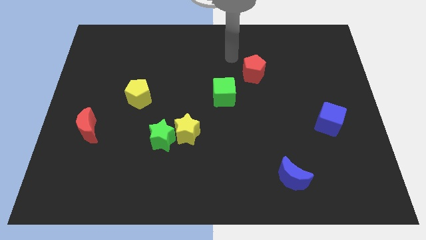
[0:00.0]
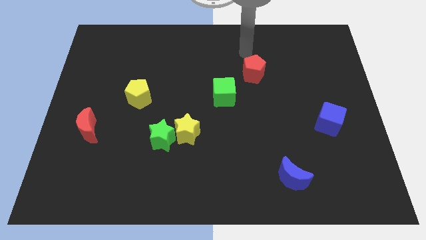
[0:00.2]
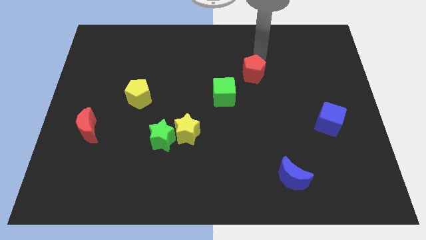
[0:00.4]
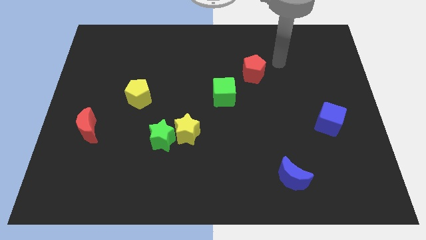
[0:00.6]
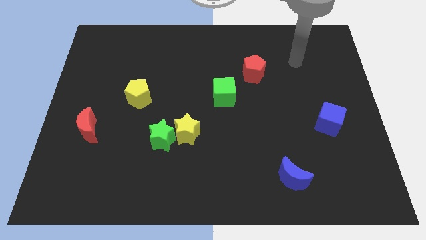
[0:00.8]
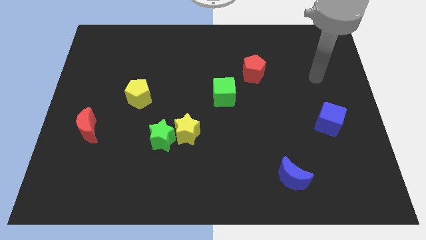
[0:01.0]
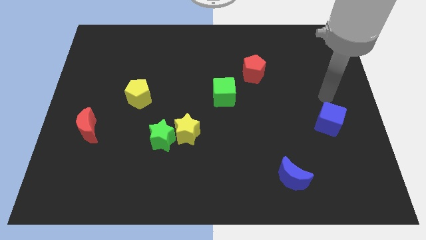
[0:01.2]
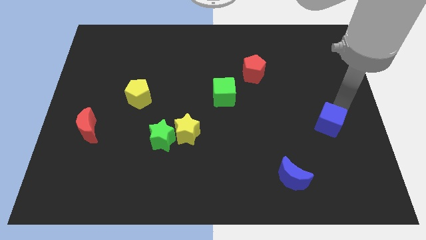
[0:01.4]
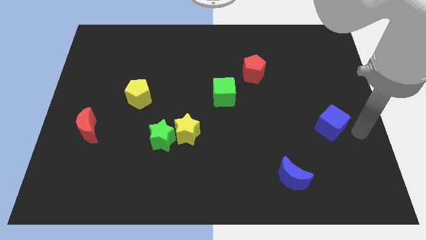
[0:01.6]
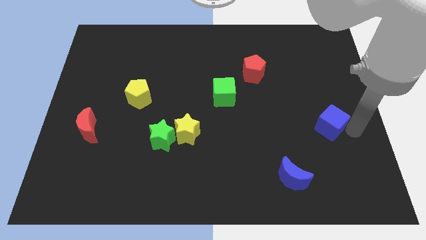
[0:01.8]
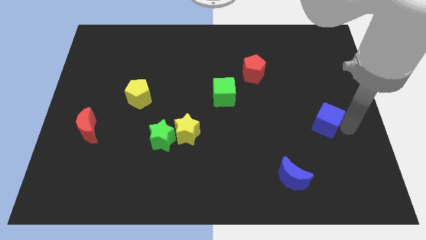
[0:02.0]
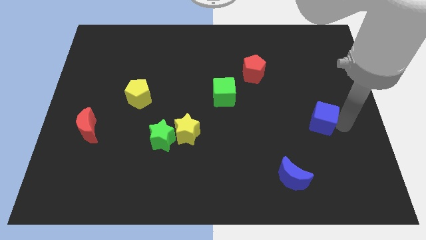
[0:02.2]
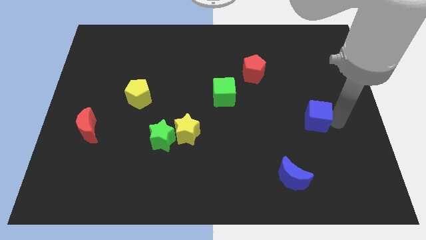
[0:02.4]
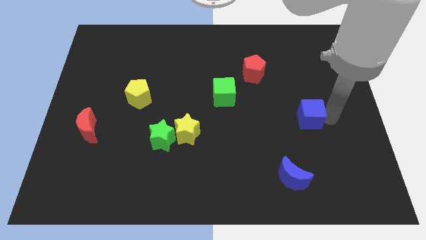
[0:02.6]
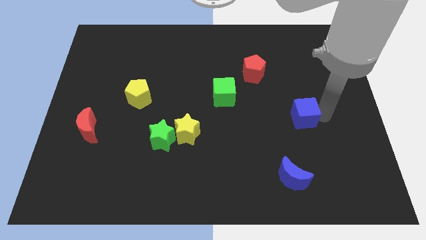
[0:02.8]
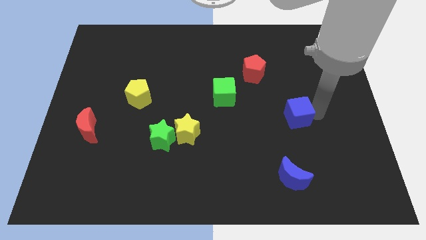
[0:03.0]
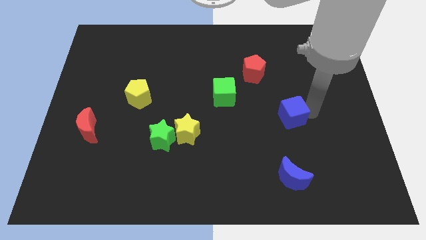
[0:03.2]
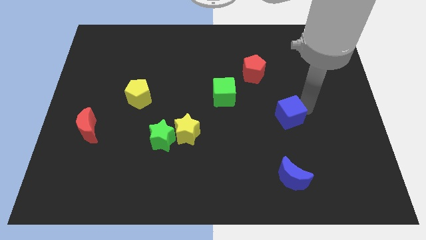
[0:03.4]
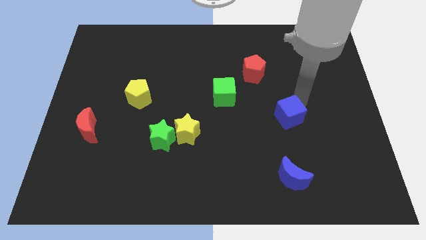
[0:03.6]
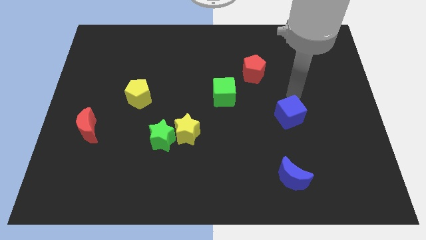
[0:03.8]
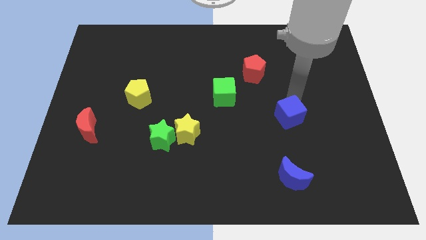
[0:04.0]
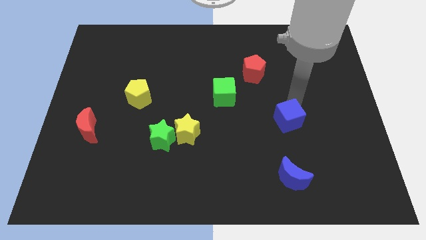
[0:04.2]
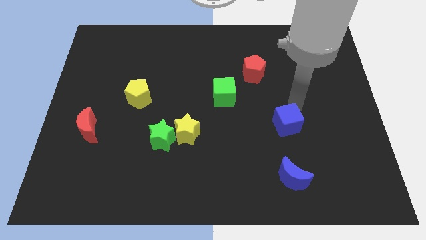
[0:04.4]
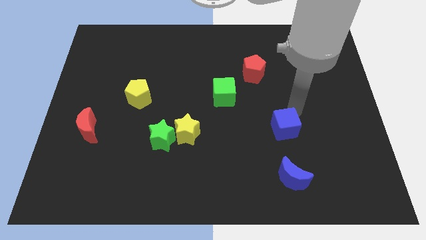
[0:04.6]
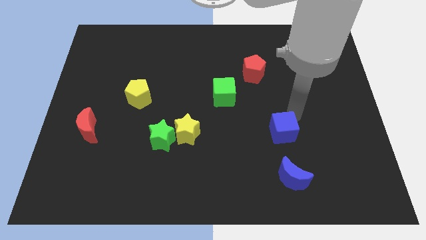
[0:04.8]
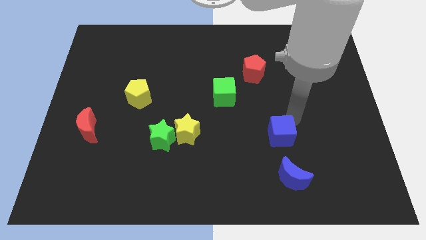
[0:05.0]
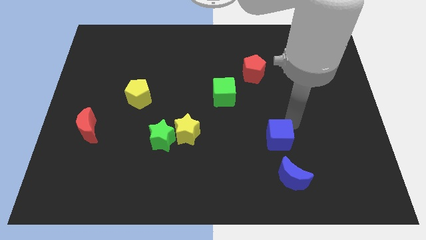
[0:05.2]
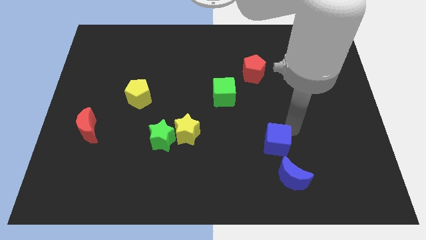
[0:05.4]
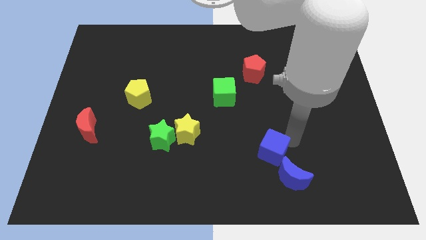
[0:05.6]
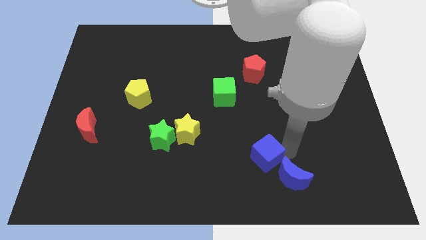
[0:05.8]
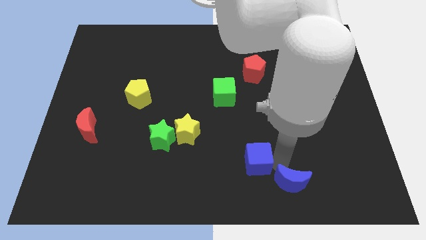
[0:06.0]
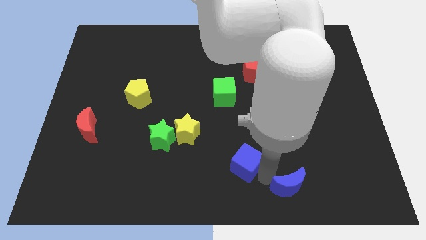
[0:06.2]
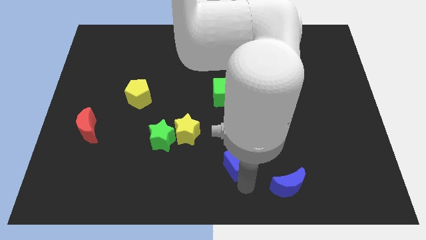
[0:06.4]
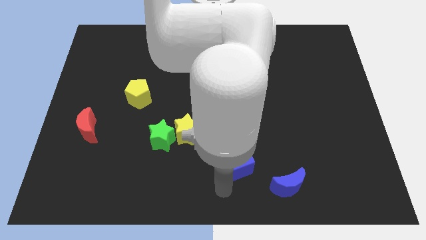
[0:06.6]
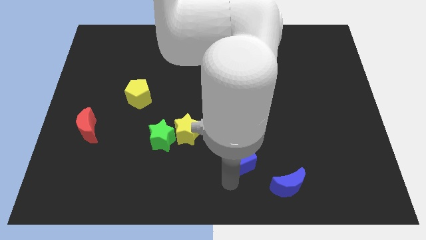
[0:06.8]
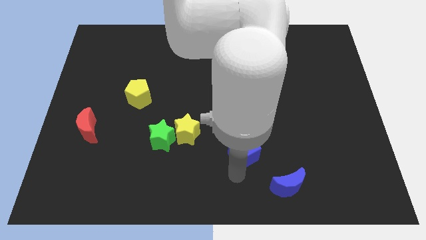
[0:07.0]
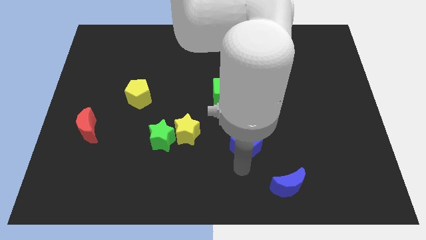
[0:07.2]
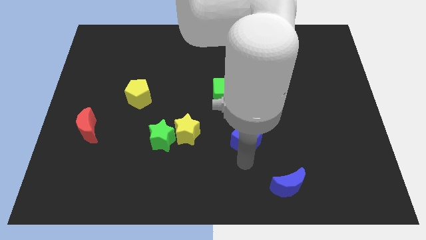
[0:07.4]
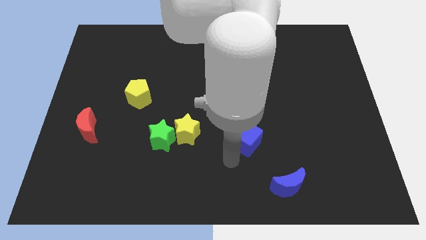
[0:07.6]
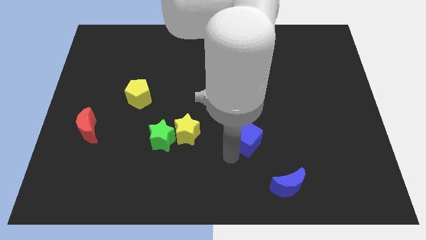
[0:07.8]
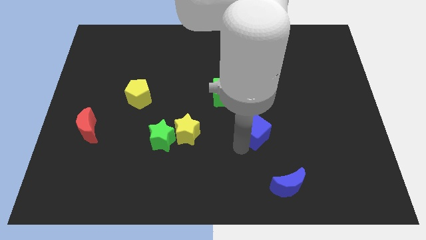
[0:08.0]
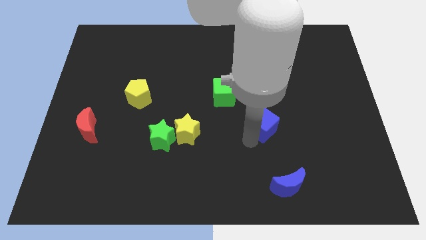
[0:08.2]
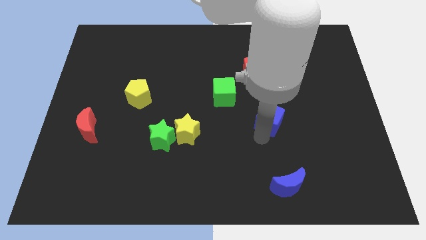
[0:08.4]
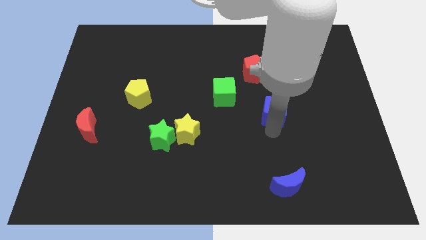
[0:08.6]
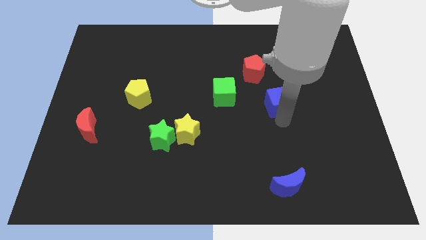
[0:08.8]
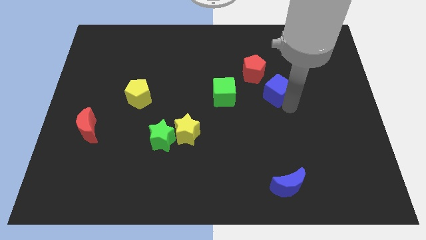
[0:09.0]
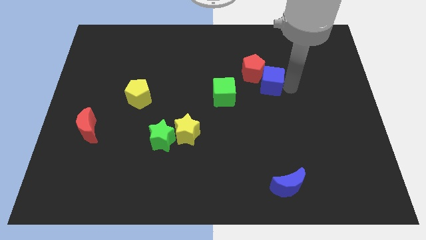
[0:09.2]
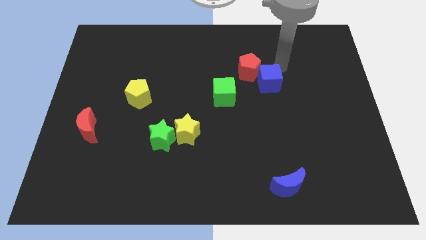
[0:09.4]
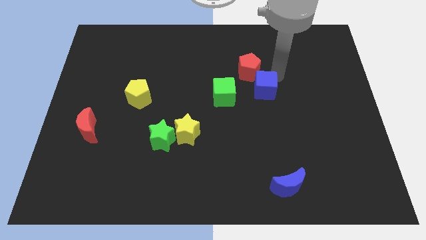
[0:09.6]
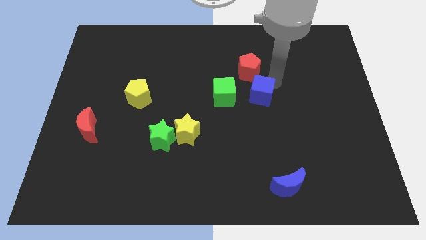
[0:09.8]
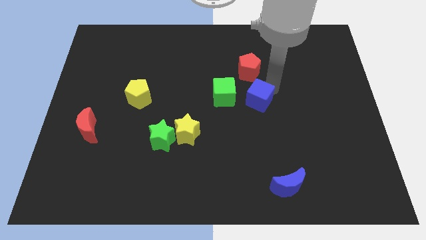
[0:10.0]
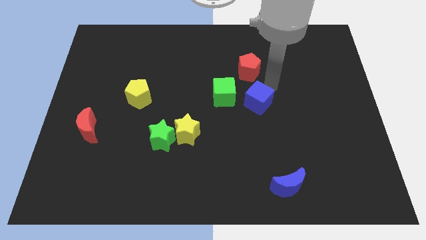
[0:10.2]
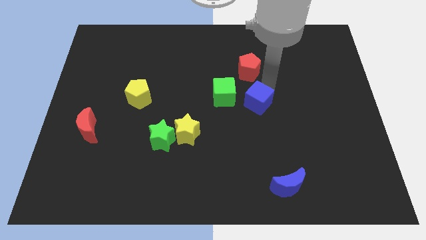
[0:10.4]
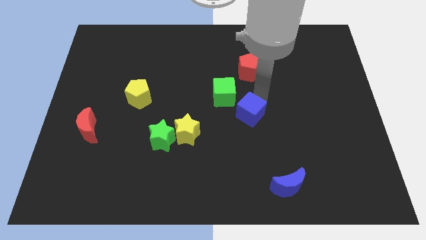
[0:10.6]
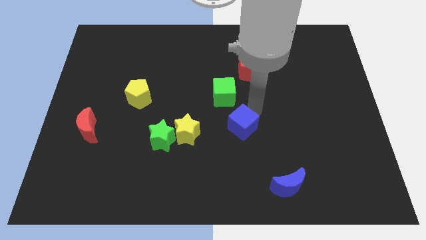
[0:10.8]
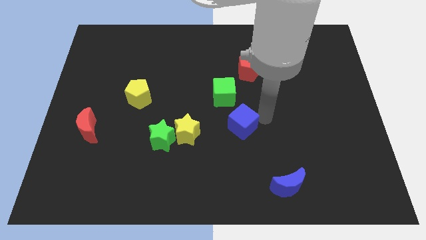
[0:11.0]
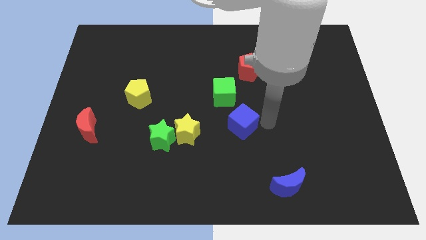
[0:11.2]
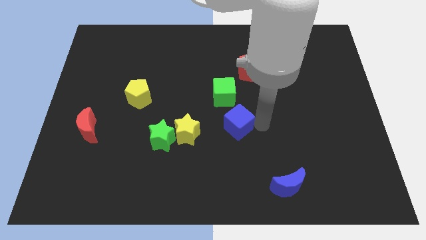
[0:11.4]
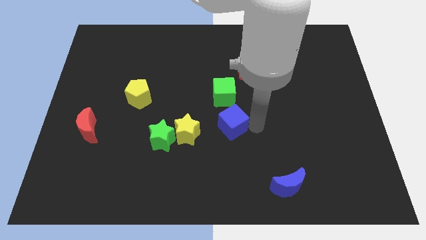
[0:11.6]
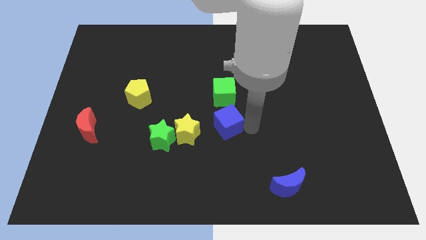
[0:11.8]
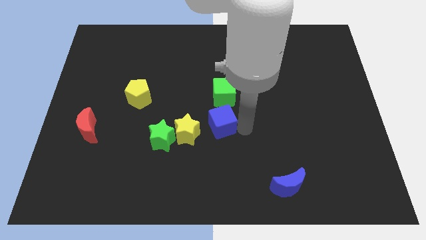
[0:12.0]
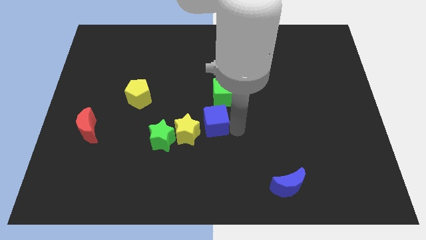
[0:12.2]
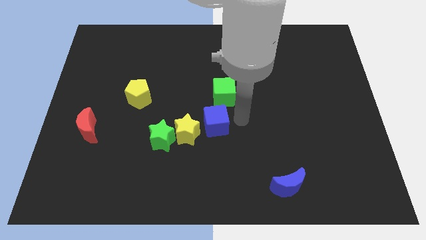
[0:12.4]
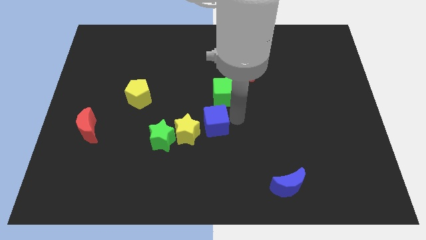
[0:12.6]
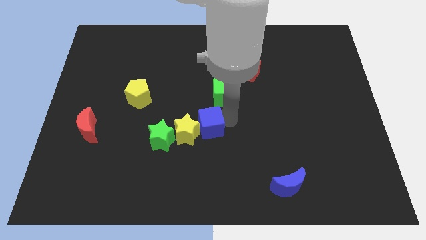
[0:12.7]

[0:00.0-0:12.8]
push the blue cube to the yellow star

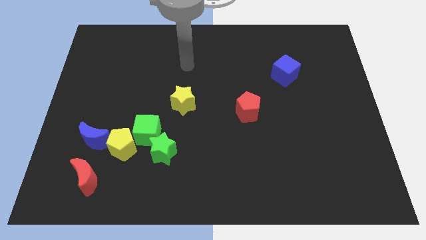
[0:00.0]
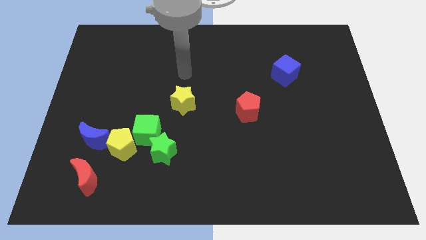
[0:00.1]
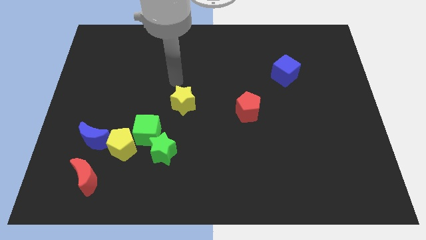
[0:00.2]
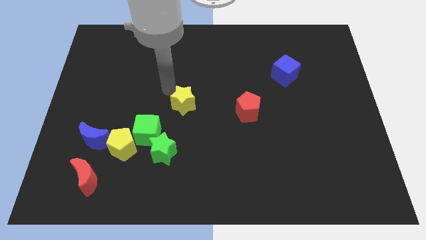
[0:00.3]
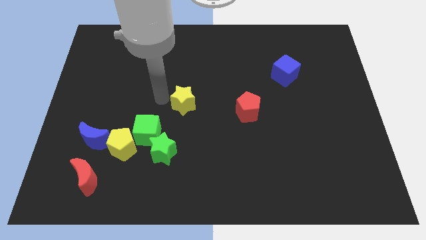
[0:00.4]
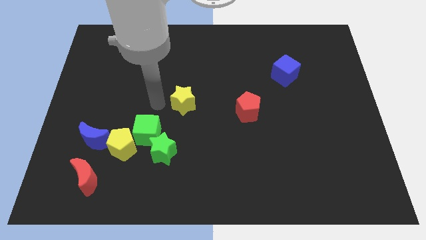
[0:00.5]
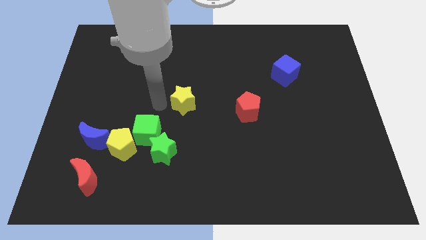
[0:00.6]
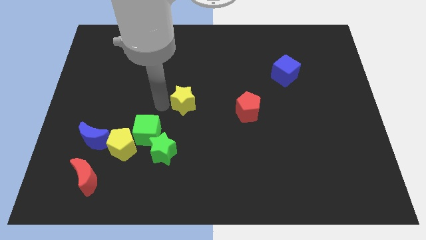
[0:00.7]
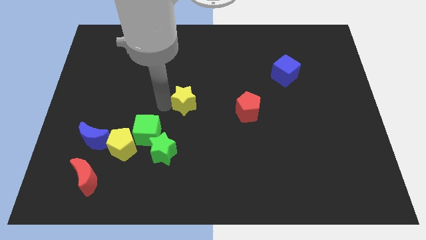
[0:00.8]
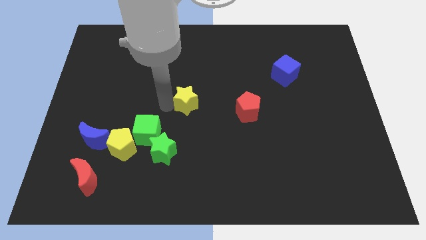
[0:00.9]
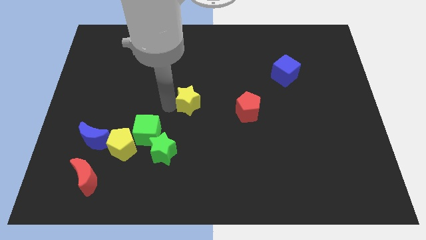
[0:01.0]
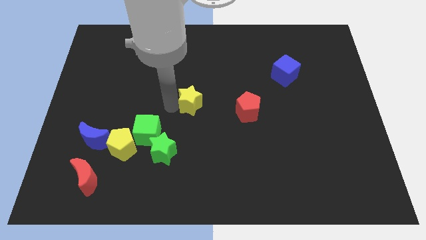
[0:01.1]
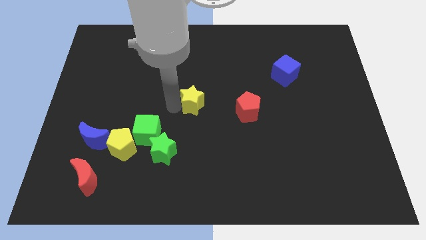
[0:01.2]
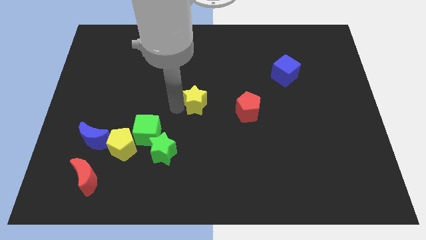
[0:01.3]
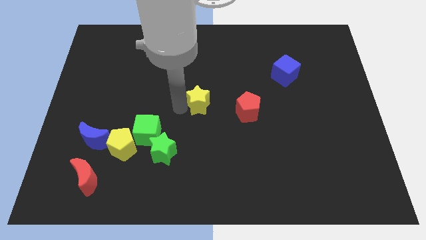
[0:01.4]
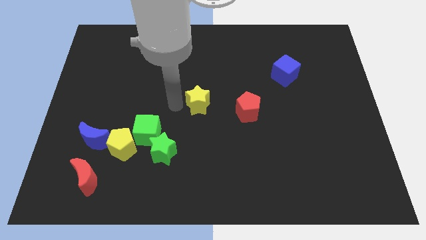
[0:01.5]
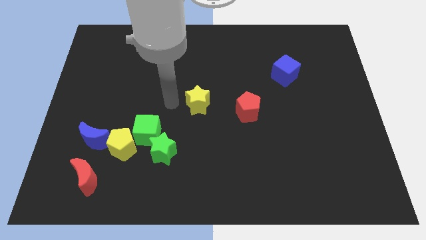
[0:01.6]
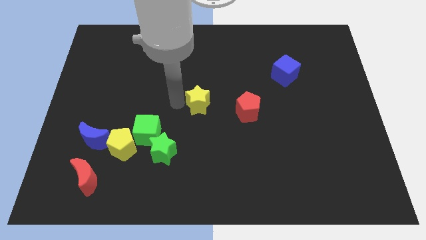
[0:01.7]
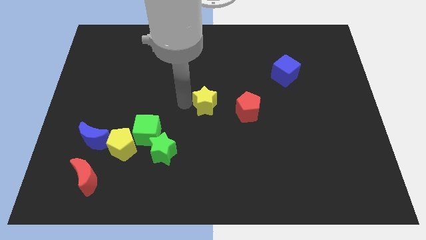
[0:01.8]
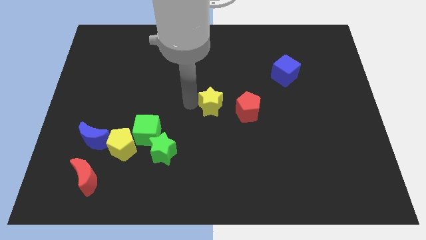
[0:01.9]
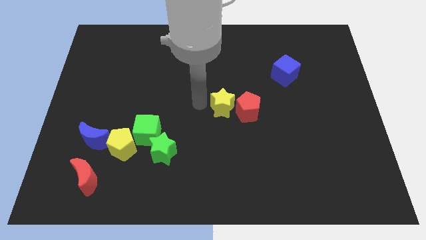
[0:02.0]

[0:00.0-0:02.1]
put the yellow star close to the red pentagon
